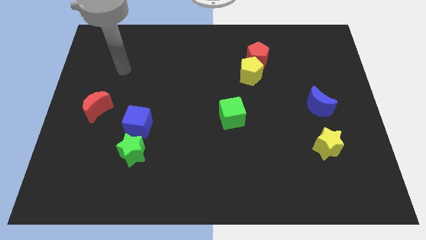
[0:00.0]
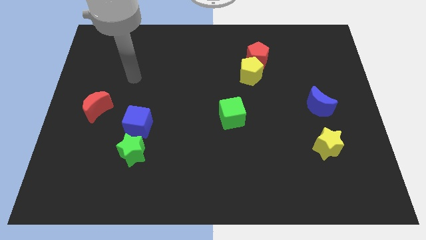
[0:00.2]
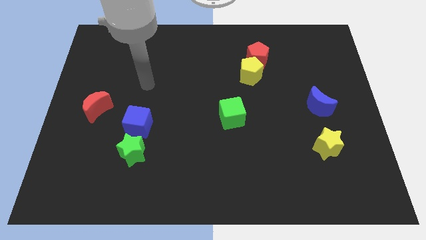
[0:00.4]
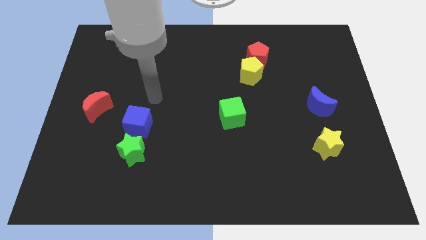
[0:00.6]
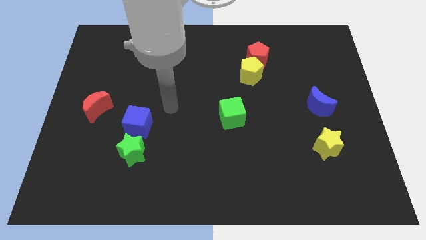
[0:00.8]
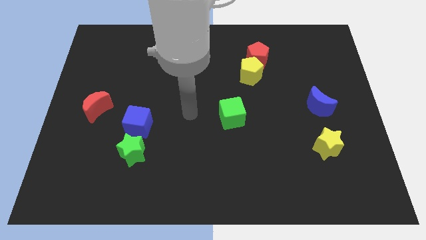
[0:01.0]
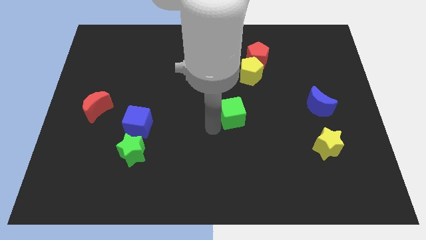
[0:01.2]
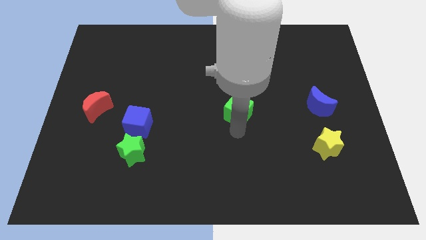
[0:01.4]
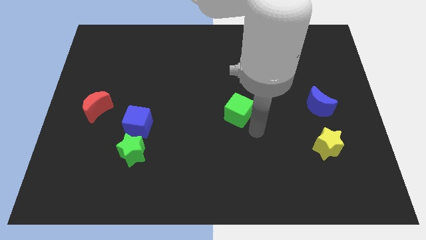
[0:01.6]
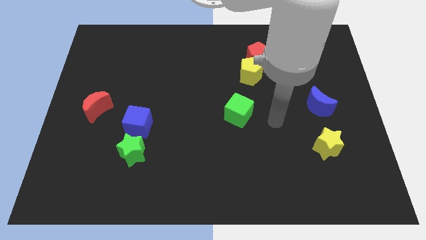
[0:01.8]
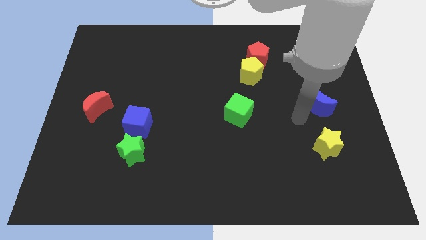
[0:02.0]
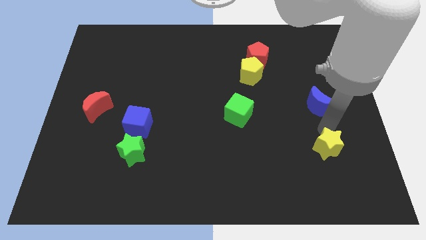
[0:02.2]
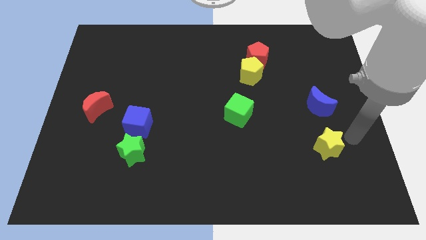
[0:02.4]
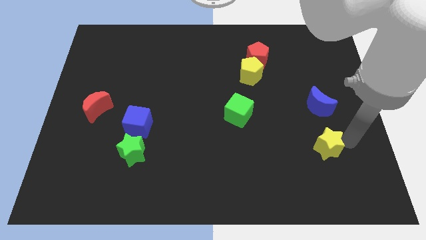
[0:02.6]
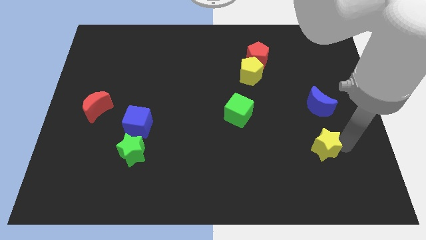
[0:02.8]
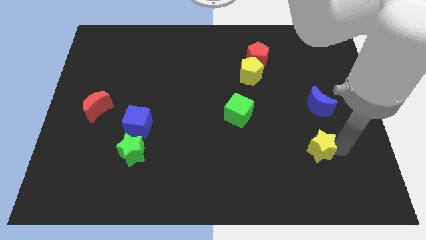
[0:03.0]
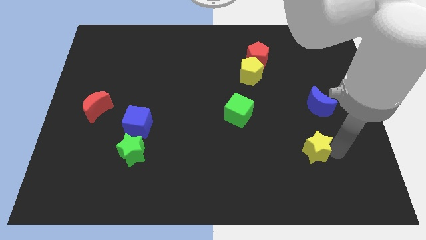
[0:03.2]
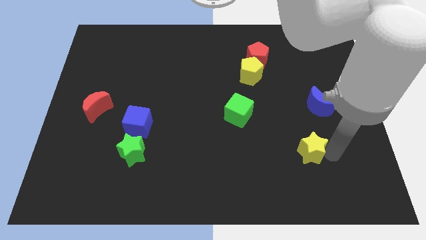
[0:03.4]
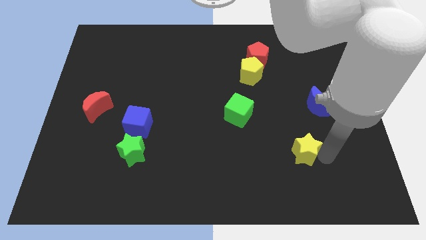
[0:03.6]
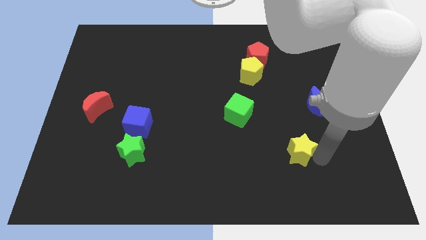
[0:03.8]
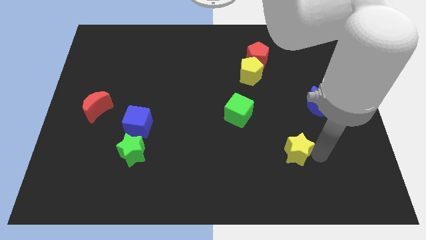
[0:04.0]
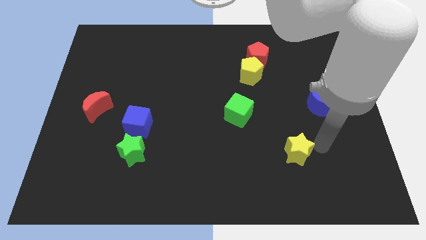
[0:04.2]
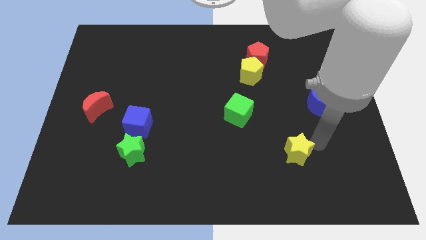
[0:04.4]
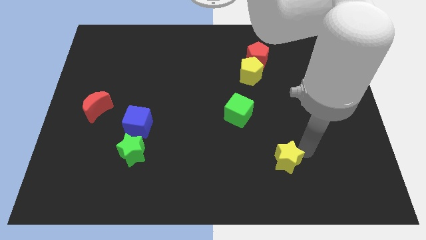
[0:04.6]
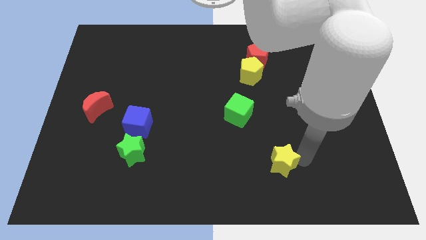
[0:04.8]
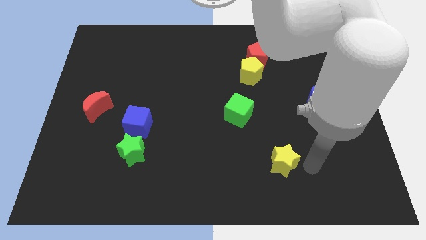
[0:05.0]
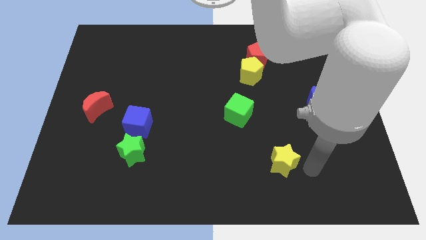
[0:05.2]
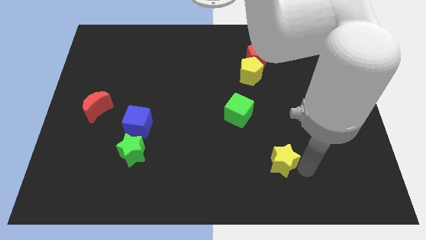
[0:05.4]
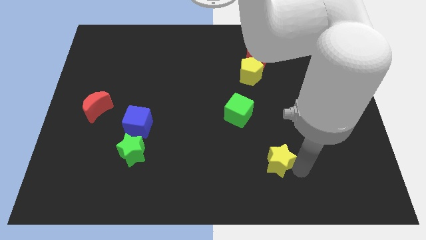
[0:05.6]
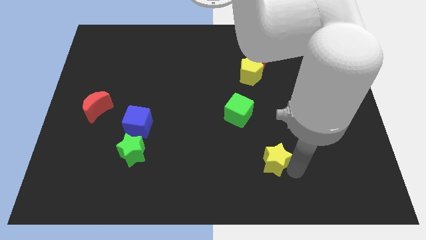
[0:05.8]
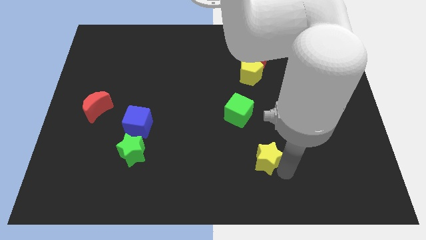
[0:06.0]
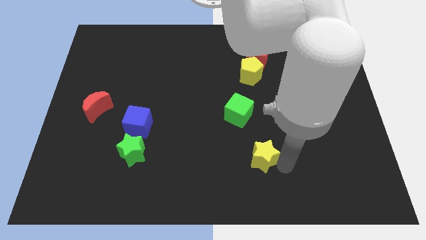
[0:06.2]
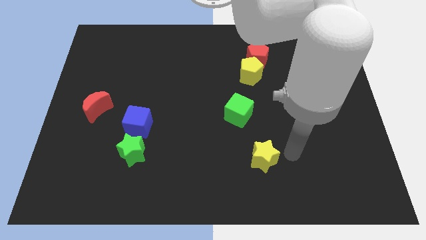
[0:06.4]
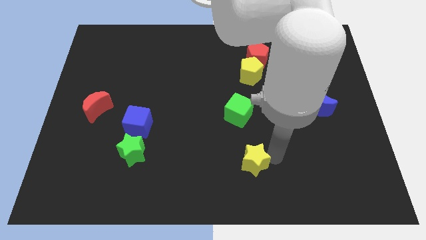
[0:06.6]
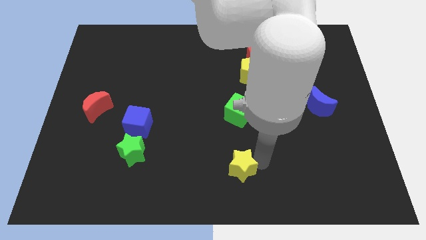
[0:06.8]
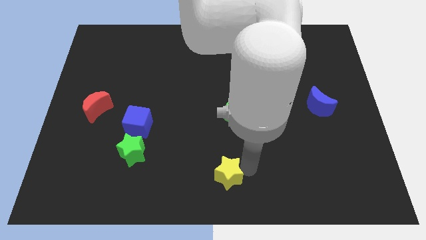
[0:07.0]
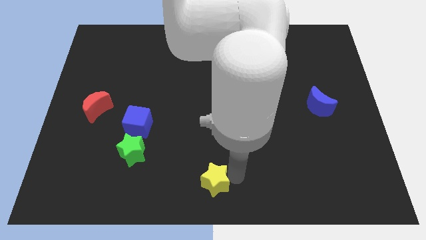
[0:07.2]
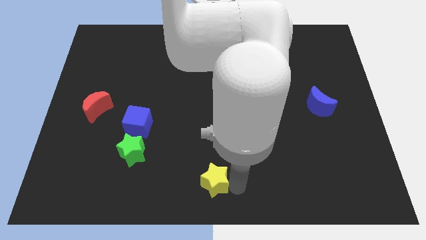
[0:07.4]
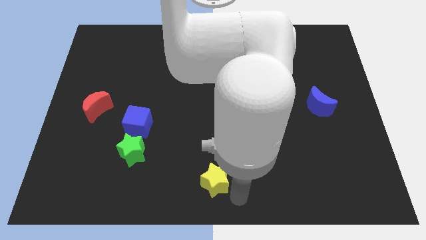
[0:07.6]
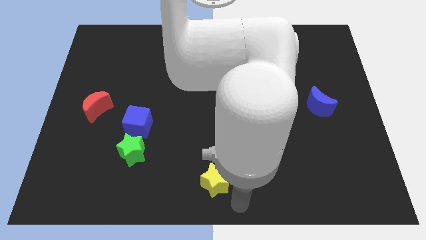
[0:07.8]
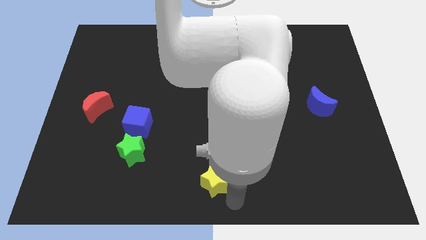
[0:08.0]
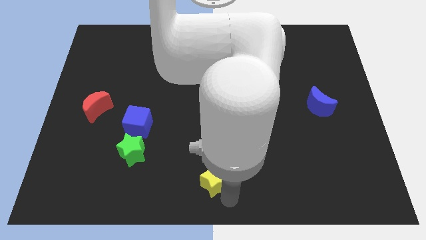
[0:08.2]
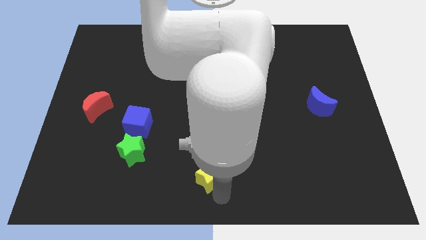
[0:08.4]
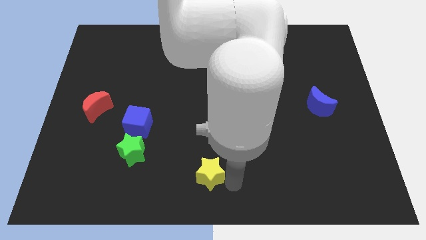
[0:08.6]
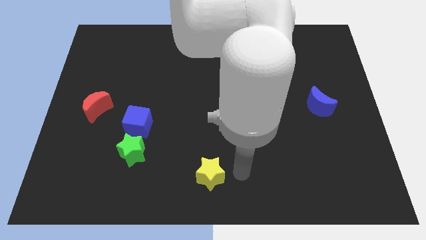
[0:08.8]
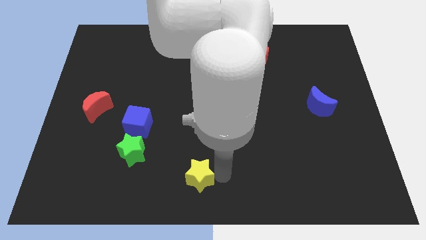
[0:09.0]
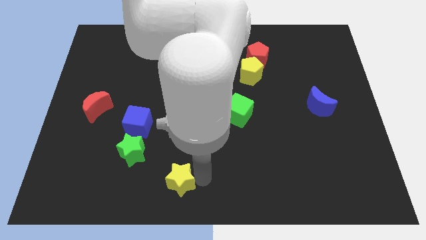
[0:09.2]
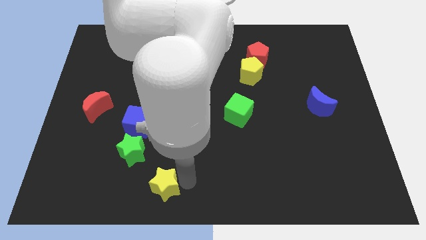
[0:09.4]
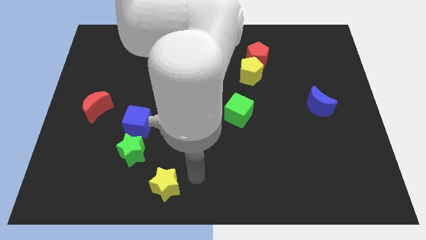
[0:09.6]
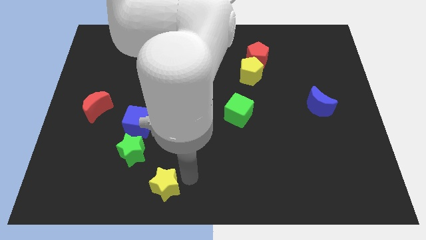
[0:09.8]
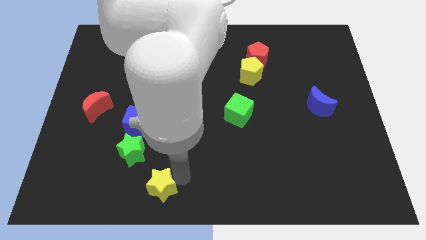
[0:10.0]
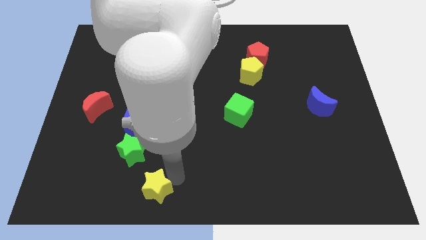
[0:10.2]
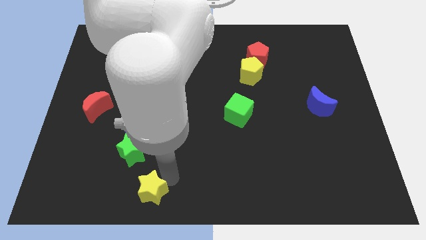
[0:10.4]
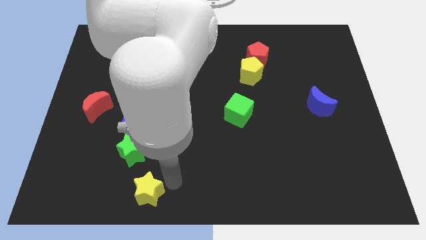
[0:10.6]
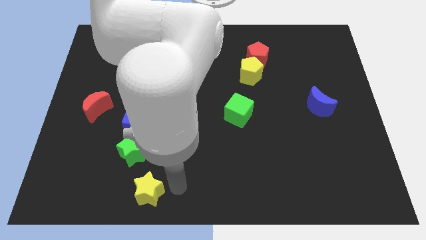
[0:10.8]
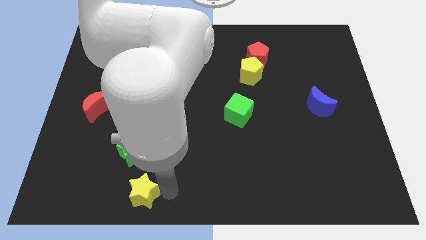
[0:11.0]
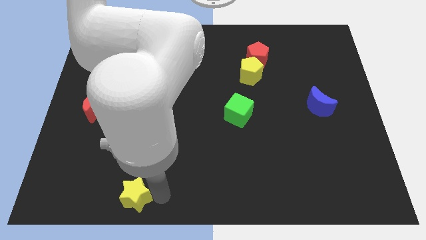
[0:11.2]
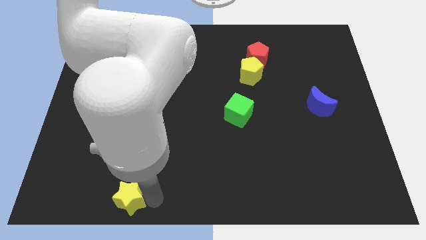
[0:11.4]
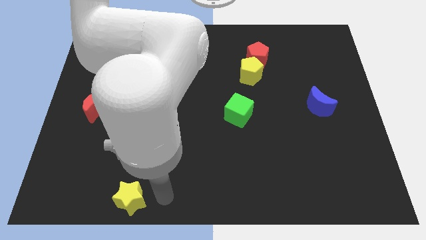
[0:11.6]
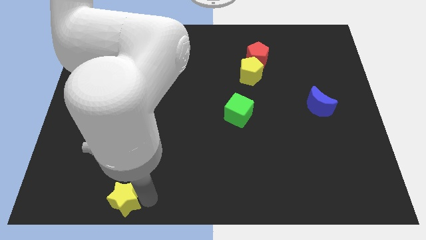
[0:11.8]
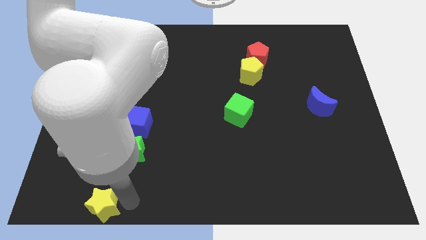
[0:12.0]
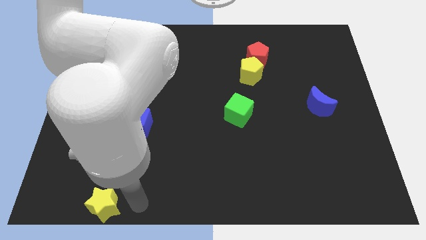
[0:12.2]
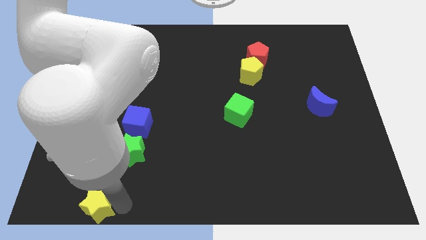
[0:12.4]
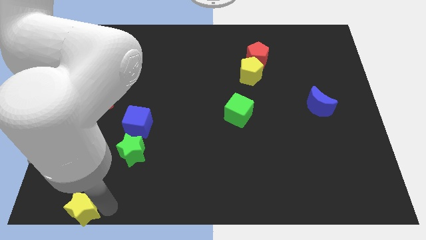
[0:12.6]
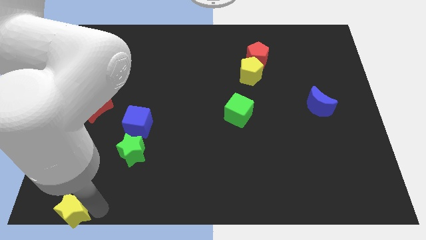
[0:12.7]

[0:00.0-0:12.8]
move the yellow star to the bottom left corner
